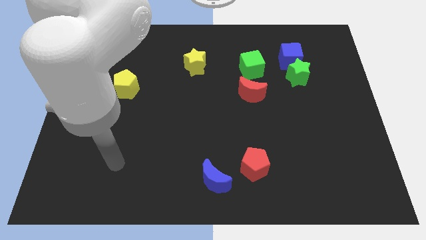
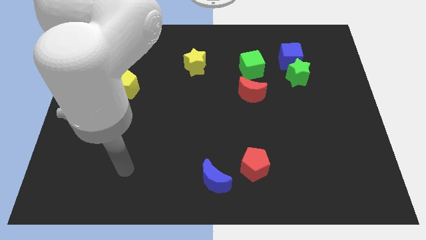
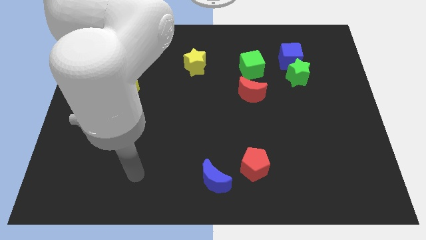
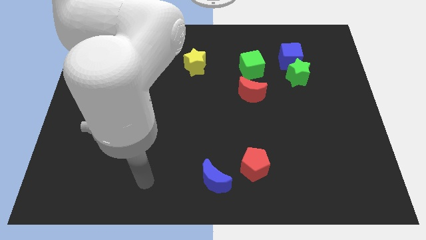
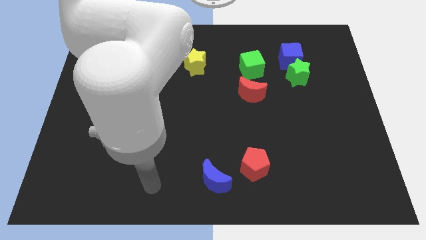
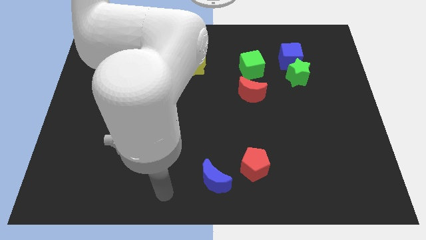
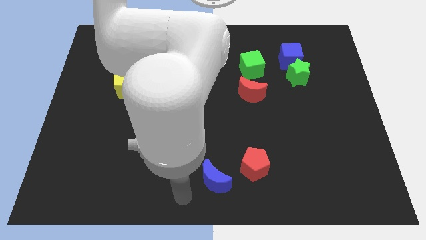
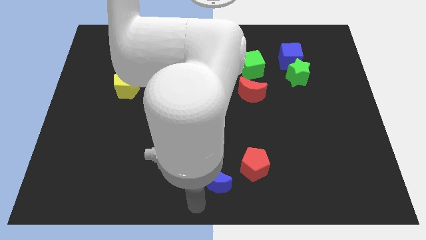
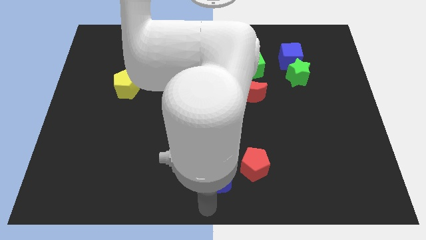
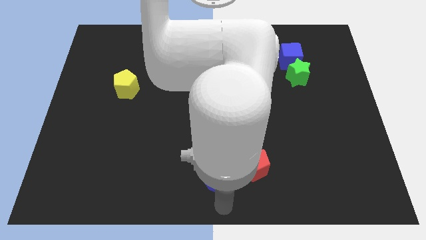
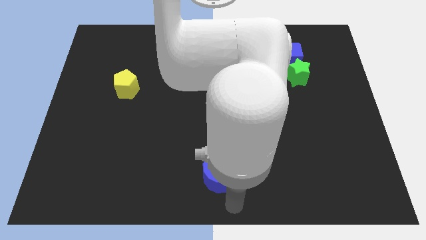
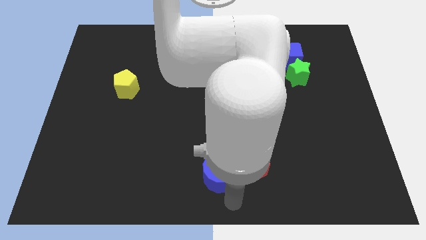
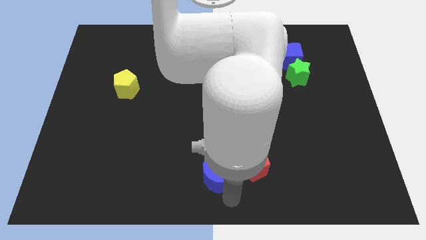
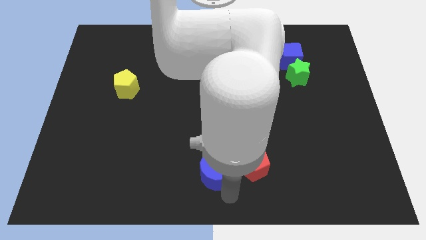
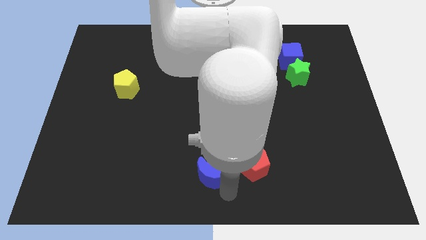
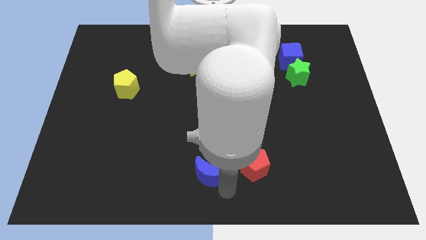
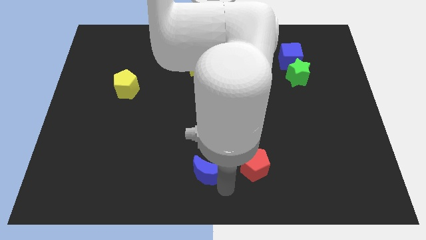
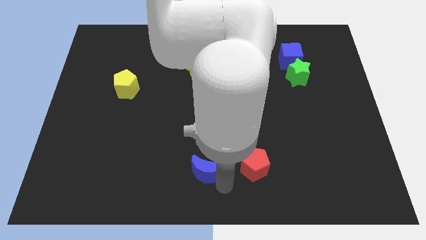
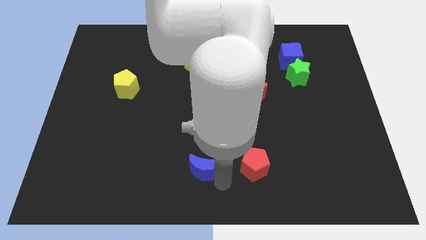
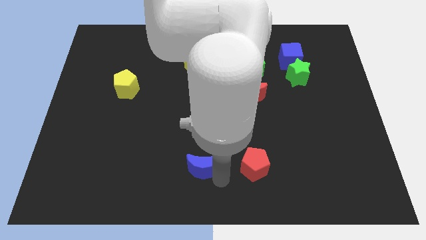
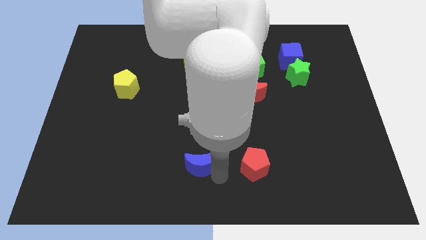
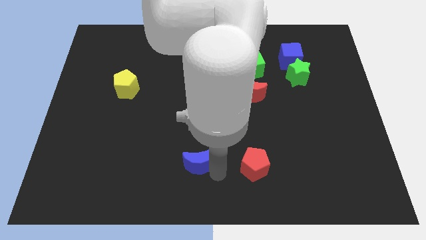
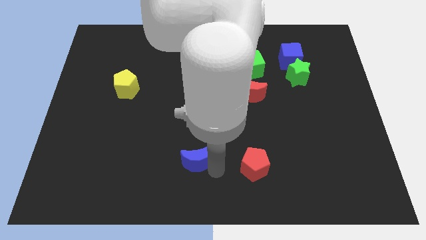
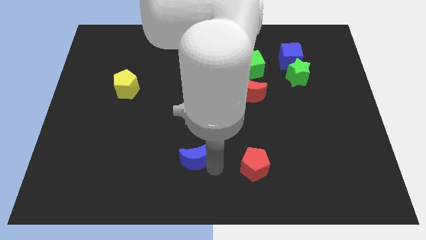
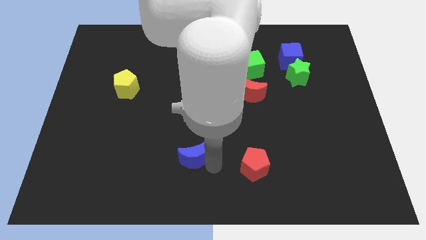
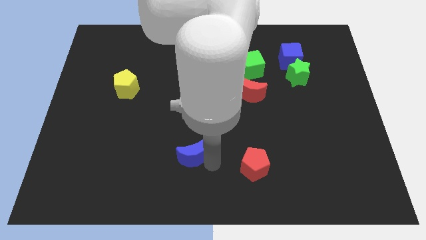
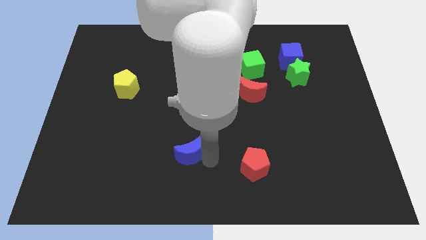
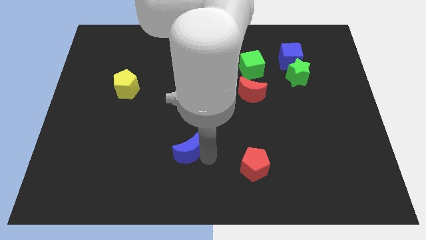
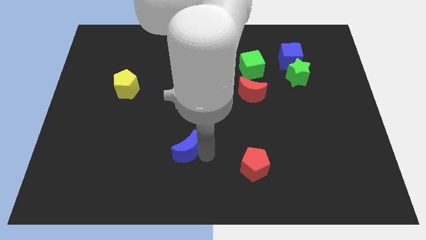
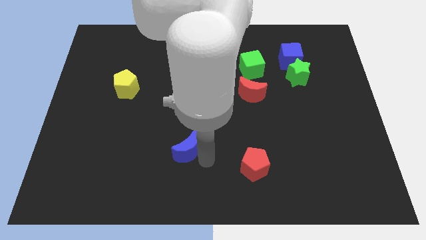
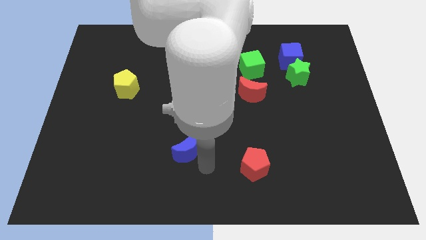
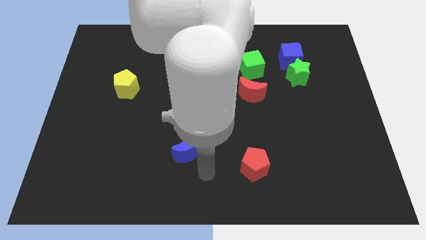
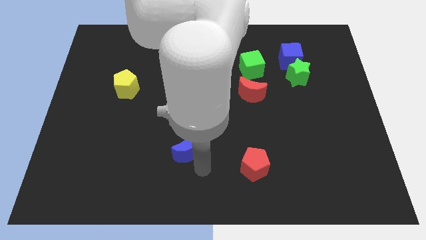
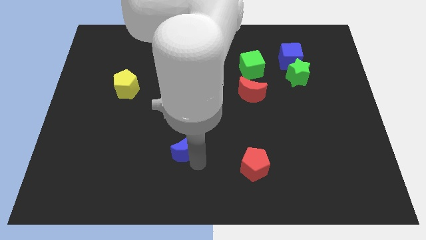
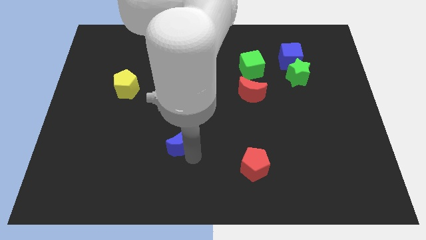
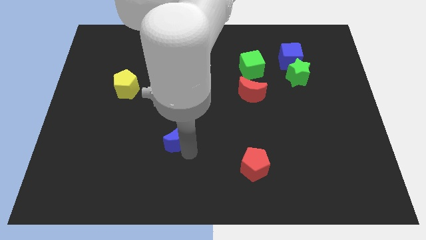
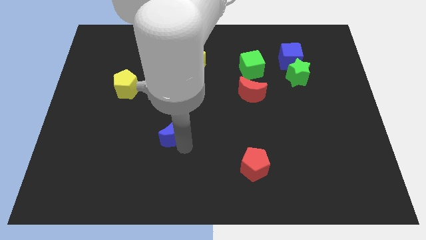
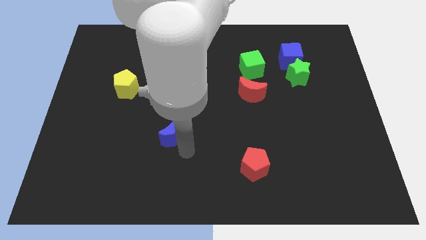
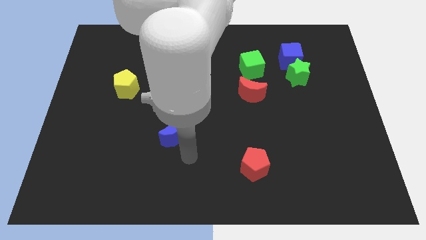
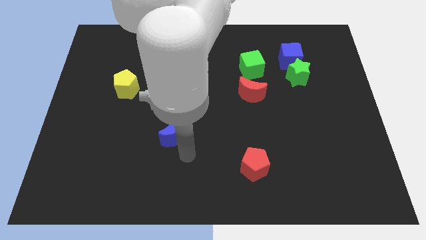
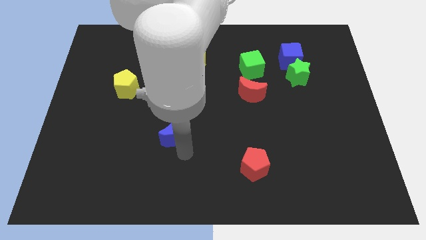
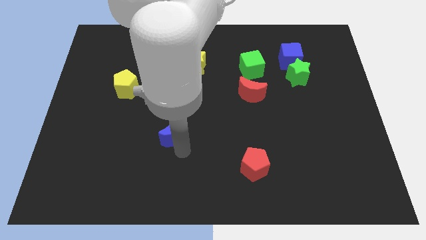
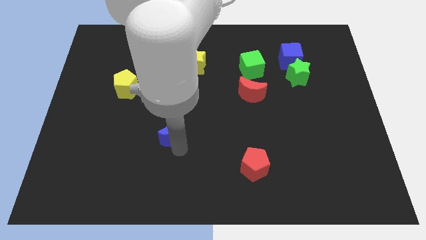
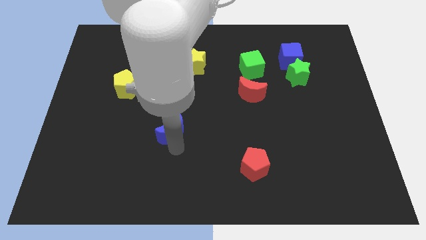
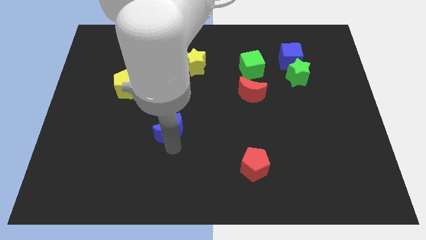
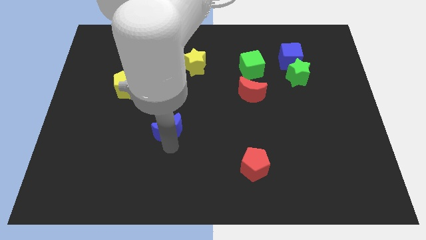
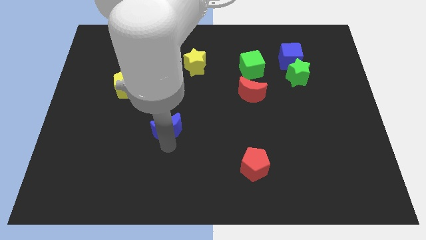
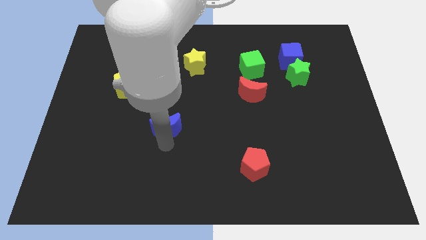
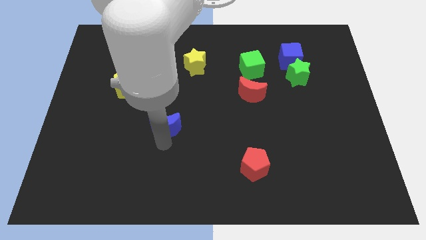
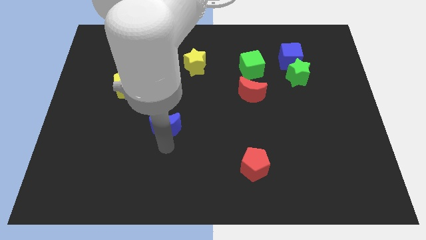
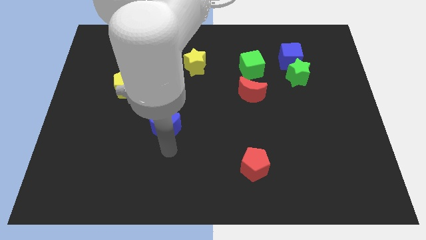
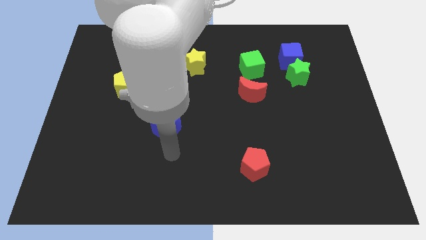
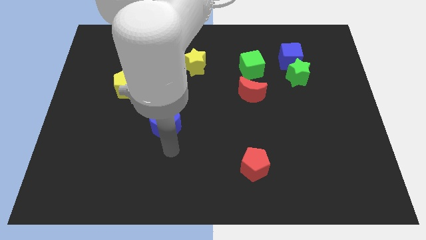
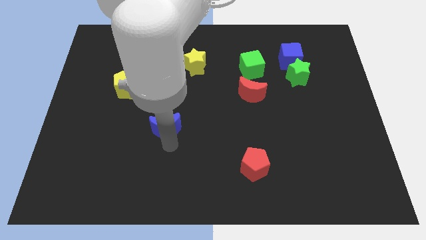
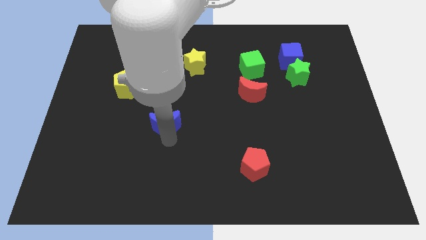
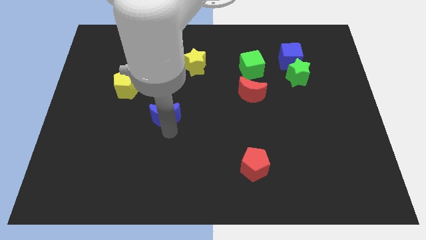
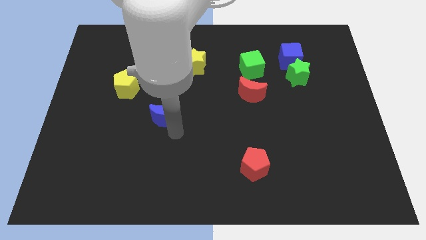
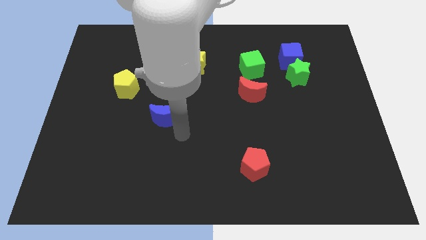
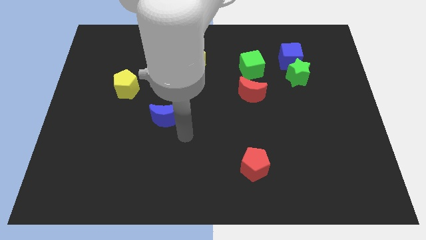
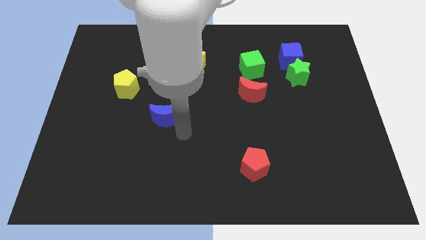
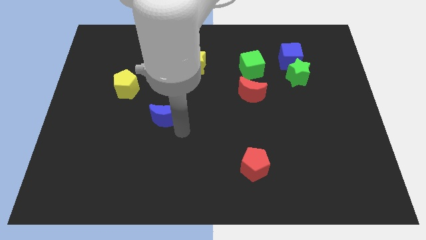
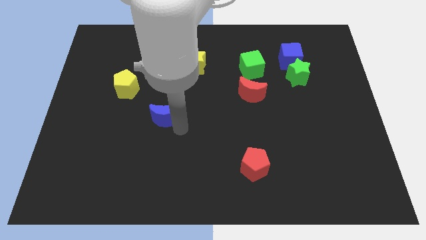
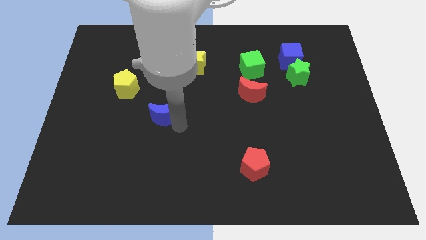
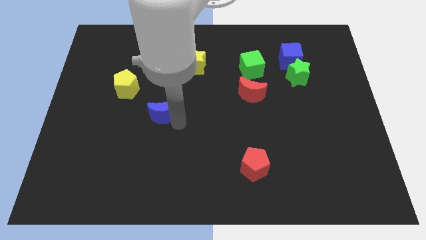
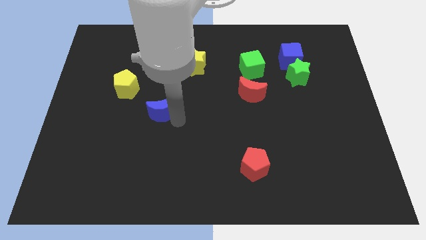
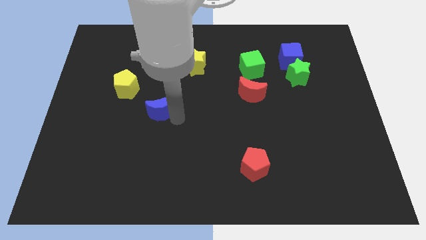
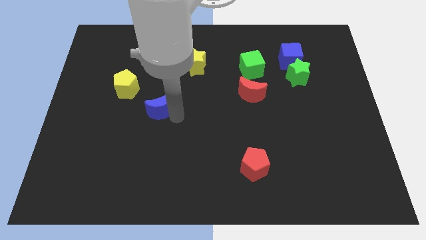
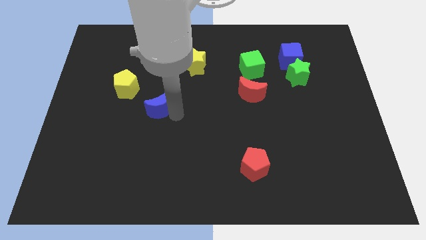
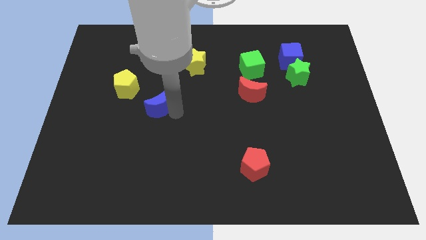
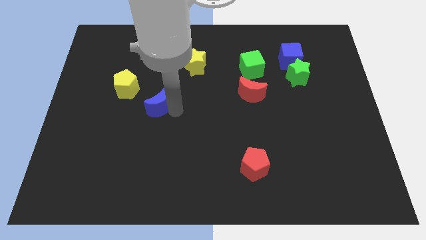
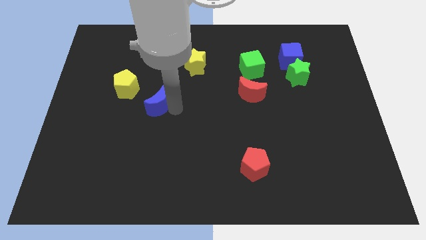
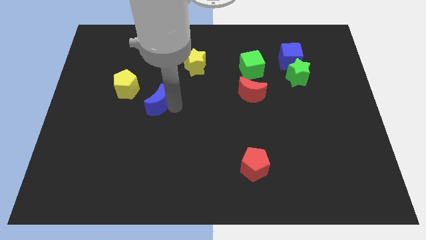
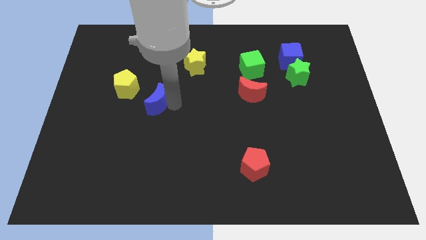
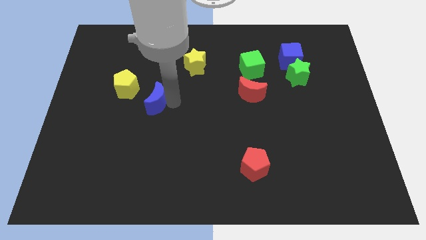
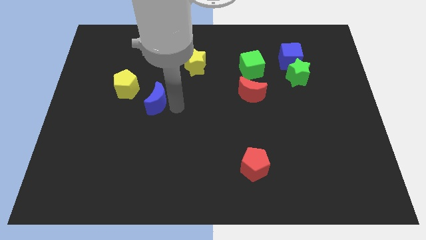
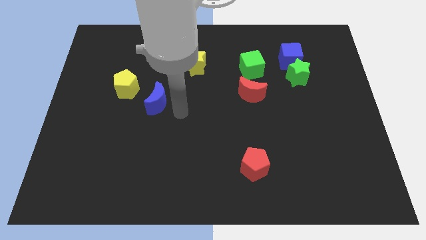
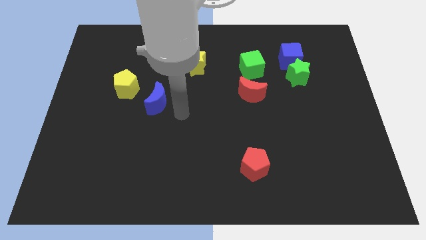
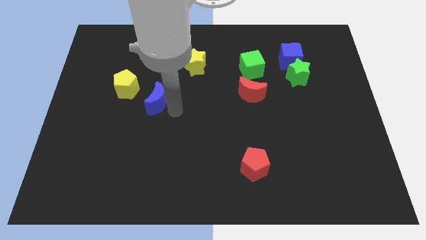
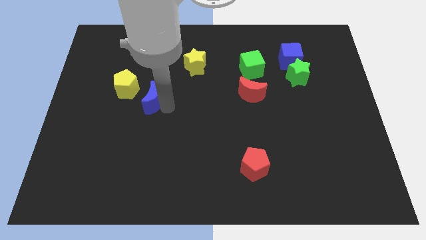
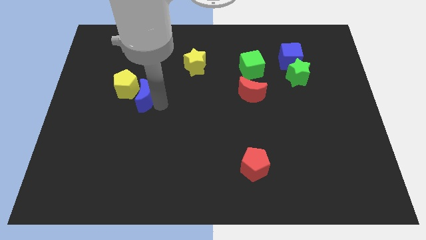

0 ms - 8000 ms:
slide the blue moon towards the yellow pentagon
